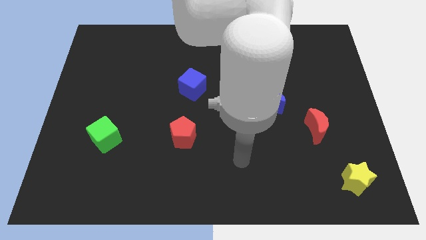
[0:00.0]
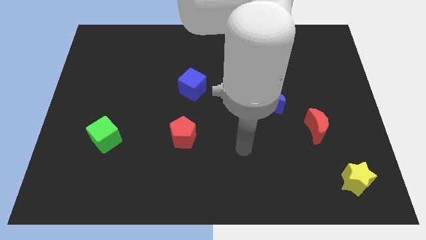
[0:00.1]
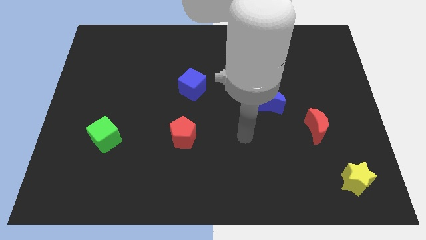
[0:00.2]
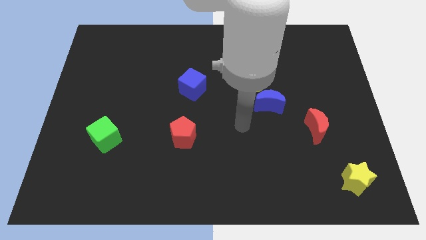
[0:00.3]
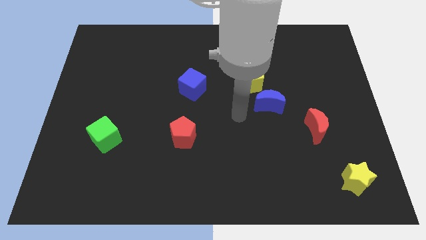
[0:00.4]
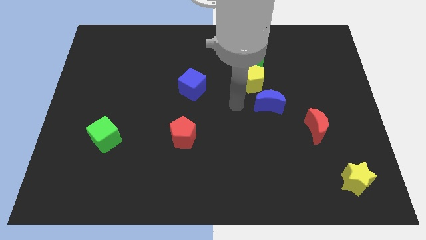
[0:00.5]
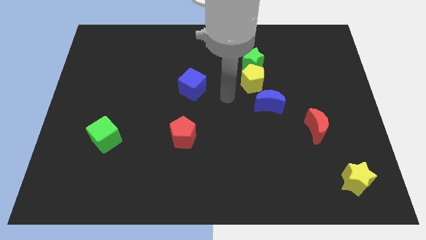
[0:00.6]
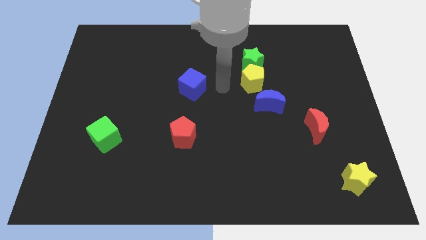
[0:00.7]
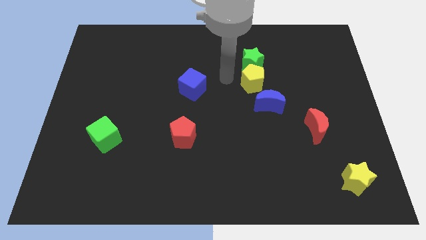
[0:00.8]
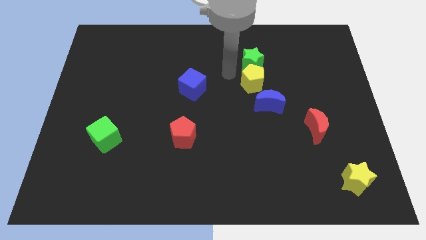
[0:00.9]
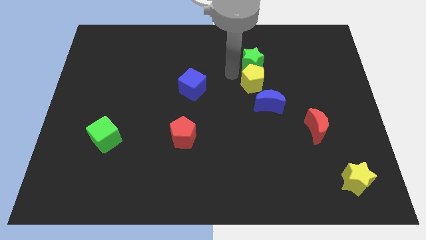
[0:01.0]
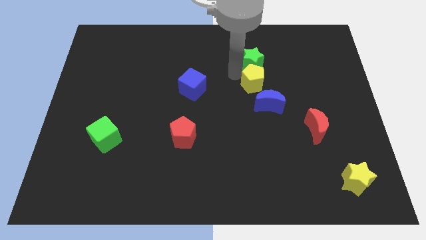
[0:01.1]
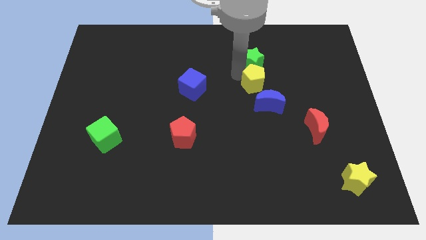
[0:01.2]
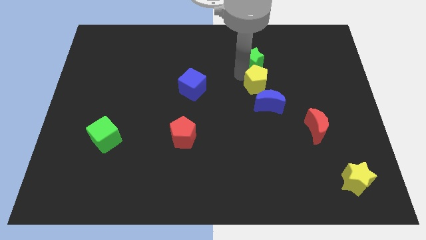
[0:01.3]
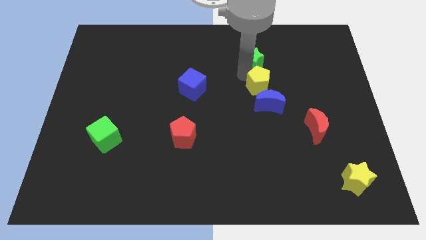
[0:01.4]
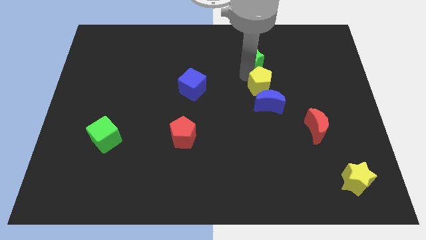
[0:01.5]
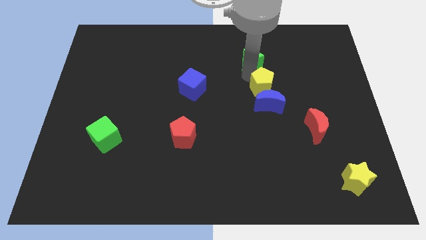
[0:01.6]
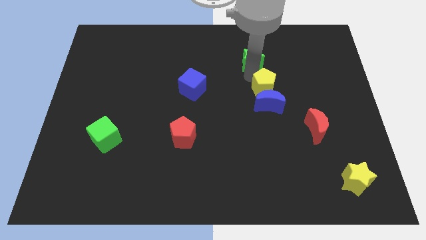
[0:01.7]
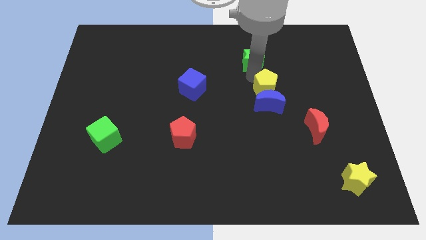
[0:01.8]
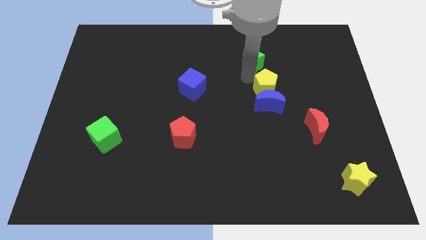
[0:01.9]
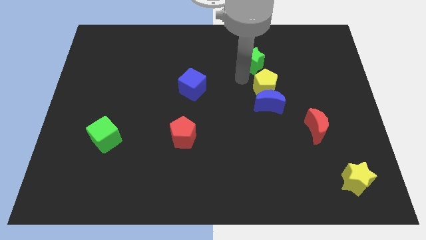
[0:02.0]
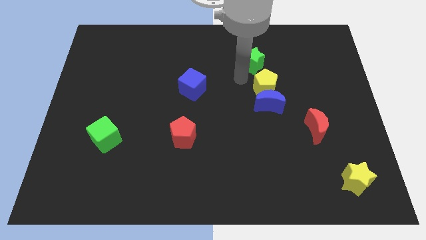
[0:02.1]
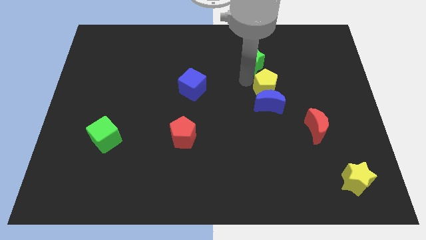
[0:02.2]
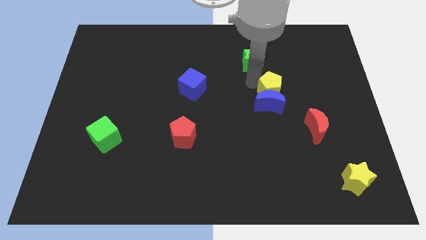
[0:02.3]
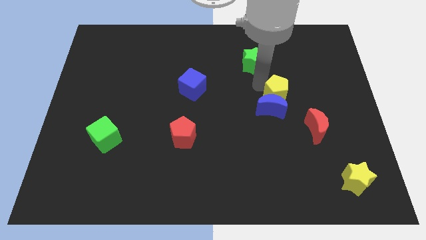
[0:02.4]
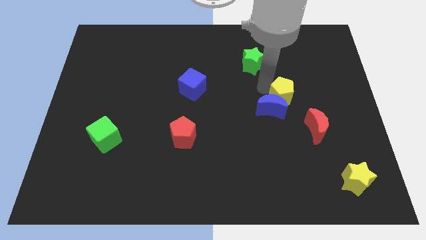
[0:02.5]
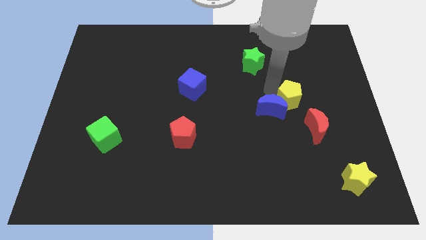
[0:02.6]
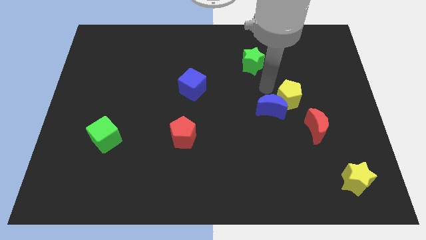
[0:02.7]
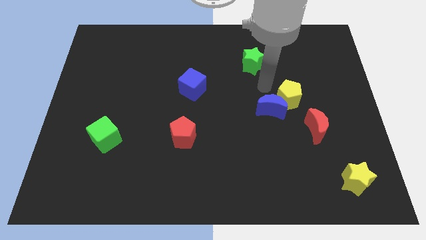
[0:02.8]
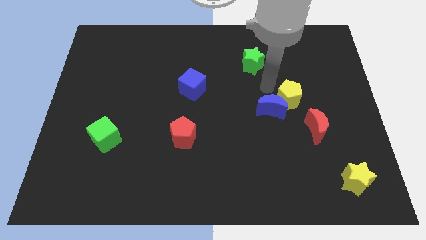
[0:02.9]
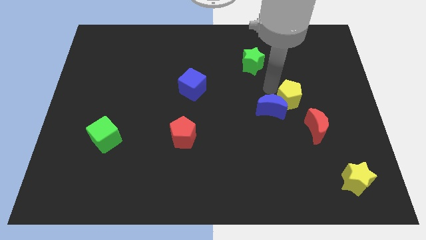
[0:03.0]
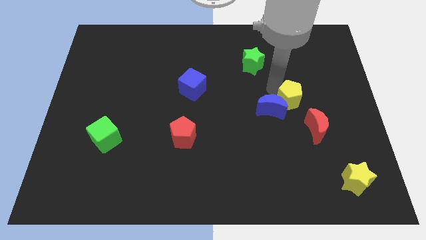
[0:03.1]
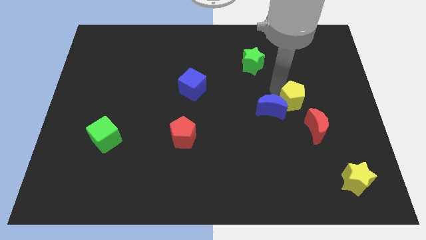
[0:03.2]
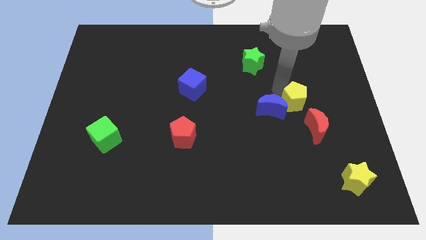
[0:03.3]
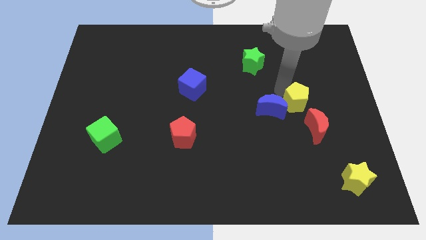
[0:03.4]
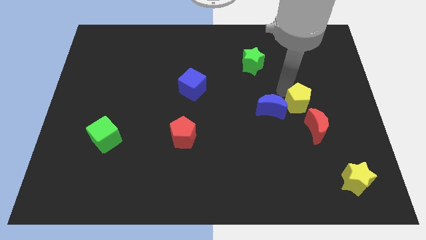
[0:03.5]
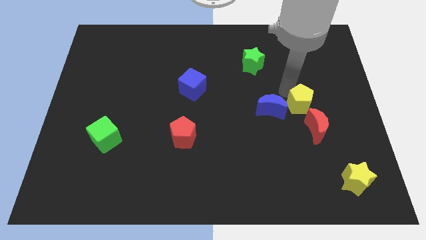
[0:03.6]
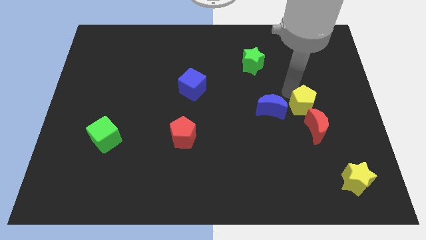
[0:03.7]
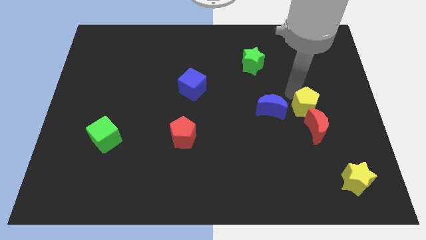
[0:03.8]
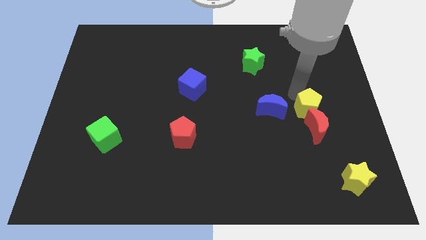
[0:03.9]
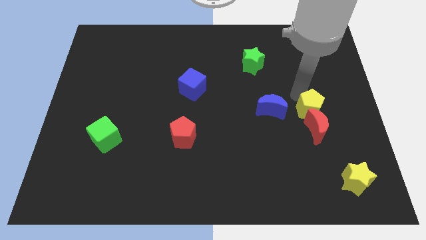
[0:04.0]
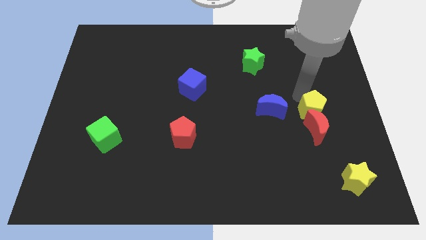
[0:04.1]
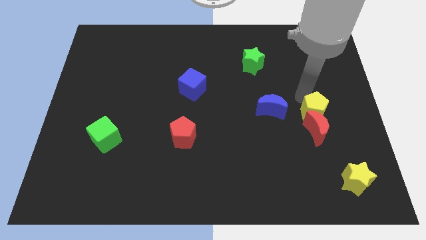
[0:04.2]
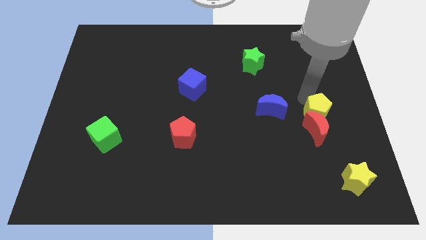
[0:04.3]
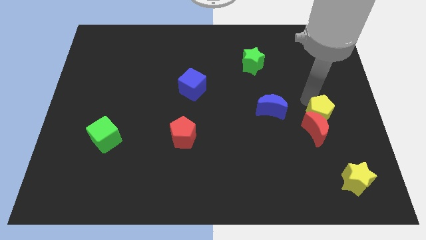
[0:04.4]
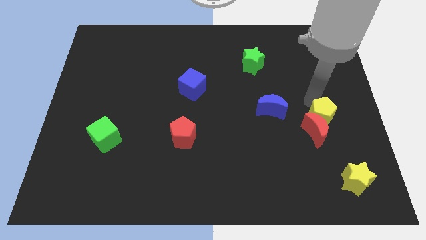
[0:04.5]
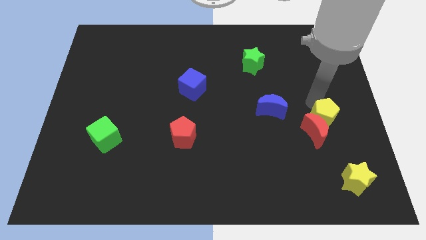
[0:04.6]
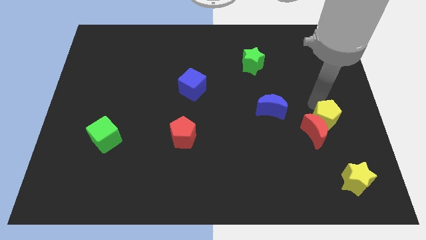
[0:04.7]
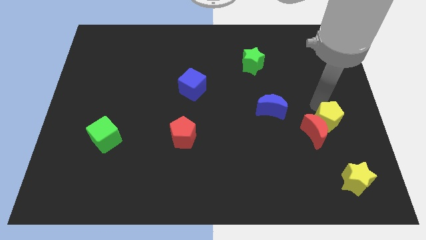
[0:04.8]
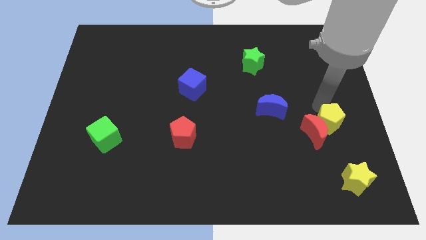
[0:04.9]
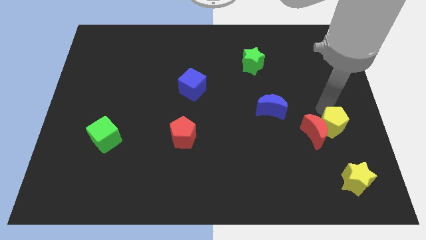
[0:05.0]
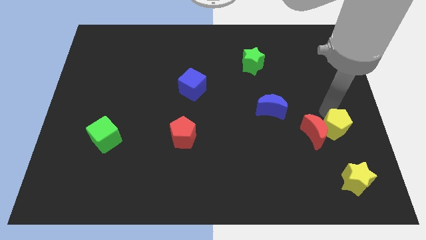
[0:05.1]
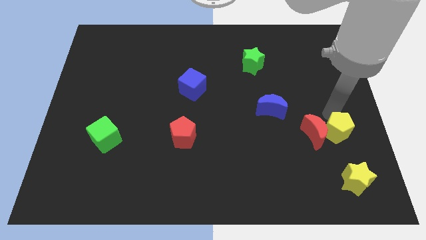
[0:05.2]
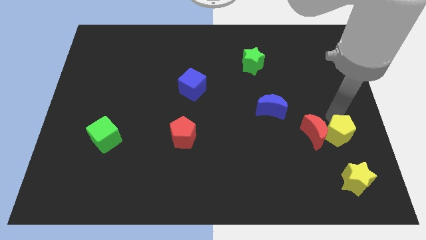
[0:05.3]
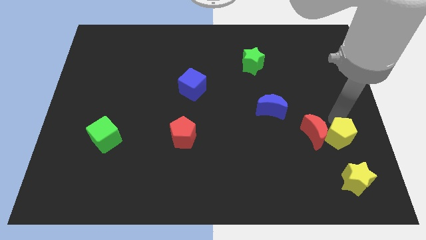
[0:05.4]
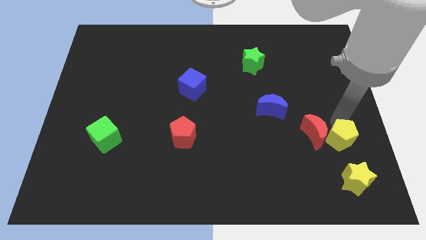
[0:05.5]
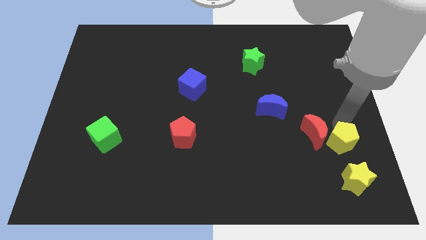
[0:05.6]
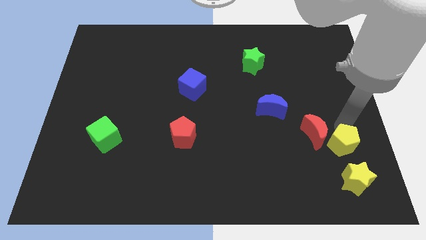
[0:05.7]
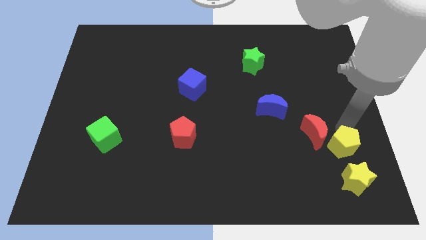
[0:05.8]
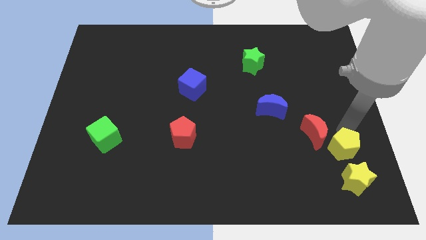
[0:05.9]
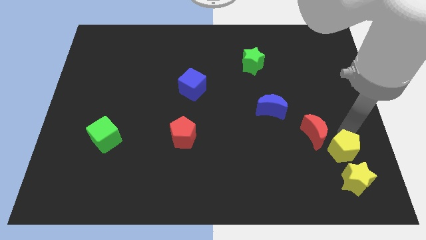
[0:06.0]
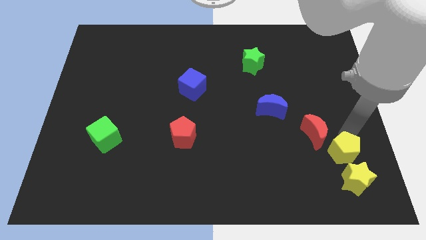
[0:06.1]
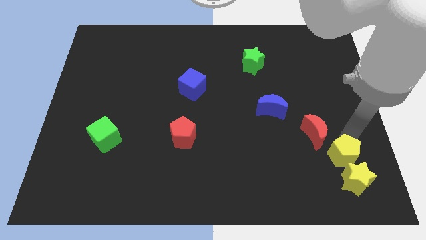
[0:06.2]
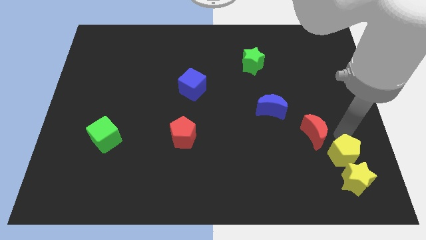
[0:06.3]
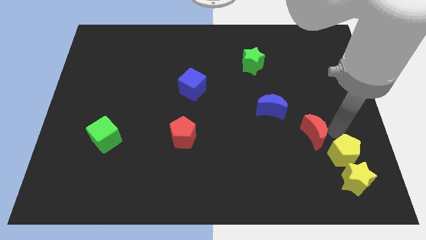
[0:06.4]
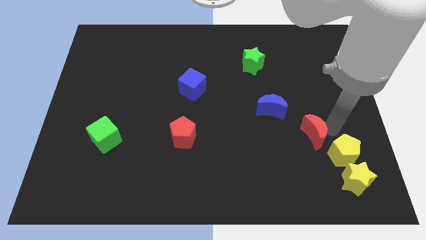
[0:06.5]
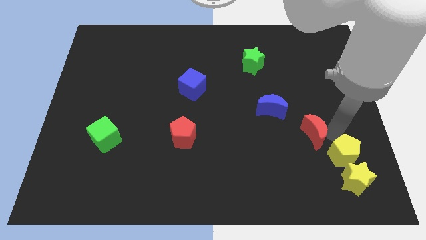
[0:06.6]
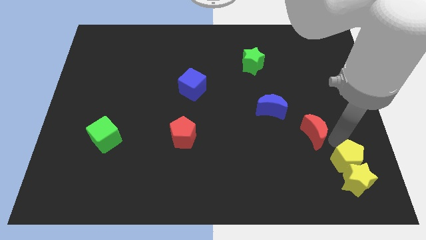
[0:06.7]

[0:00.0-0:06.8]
push the yellow pentagon next to the yellow star
